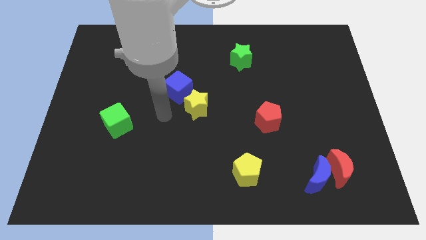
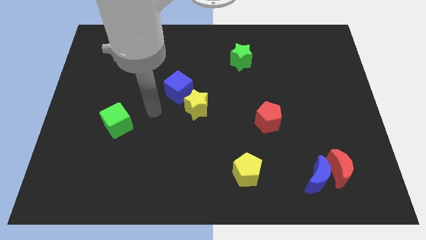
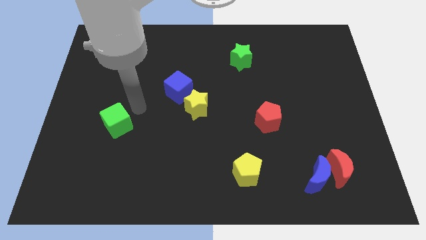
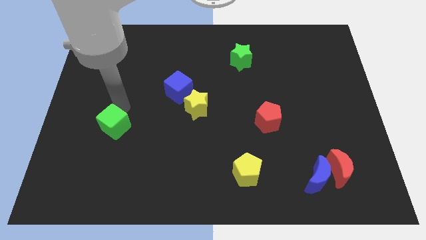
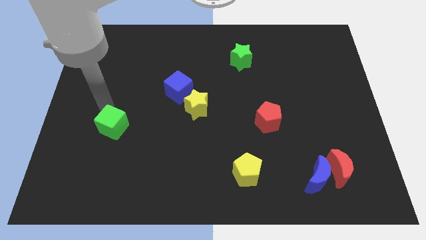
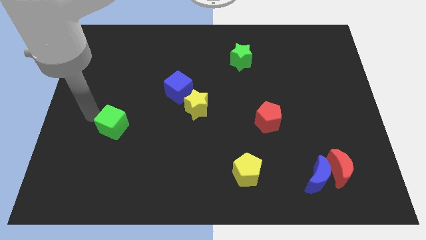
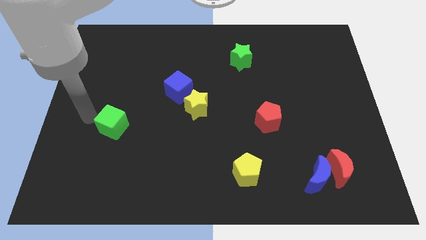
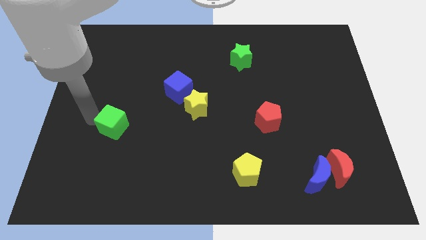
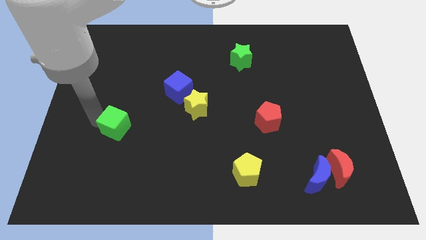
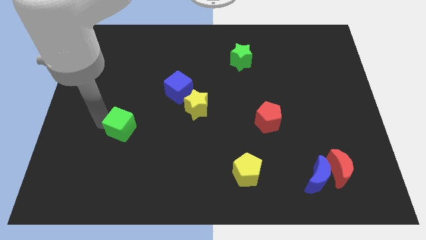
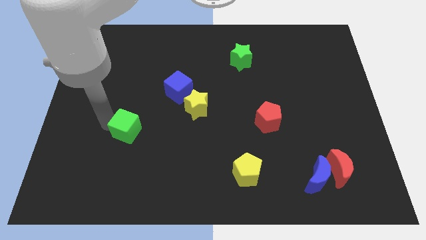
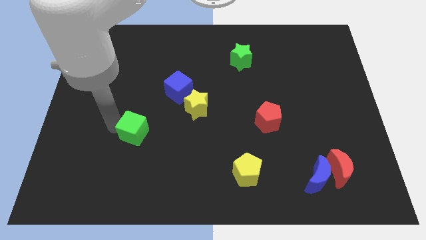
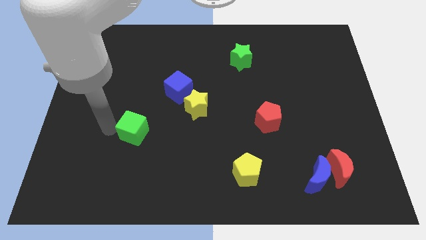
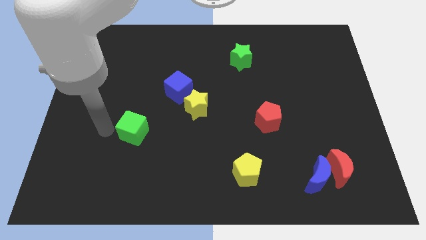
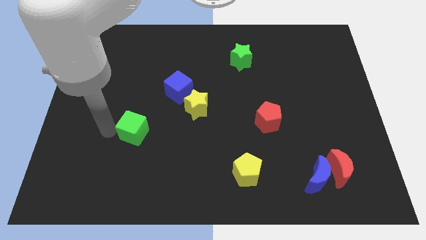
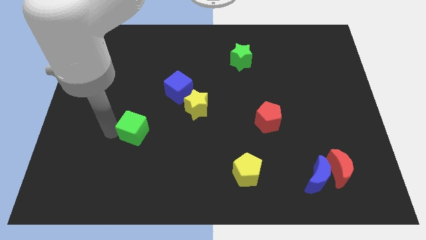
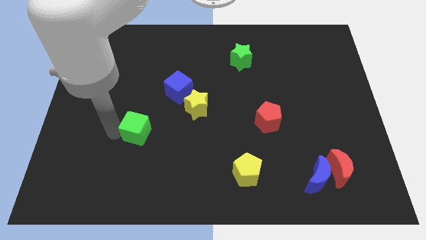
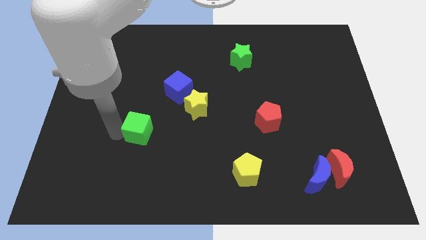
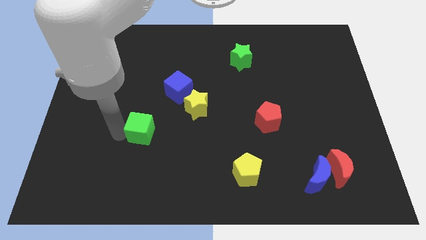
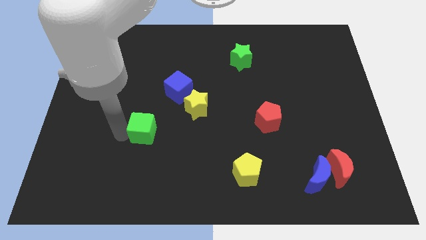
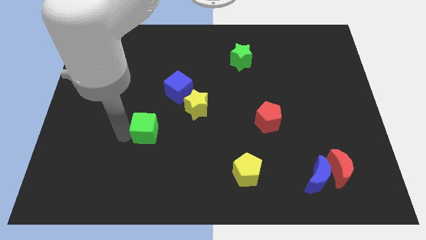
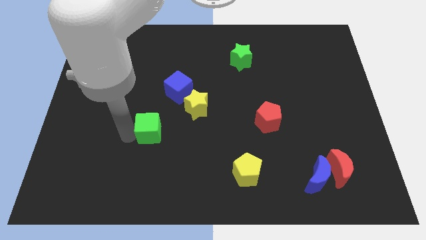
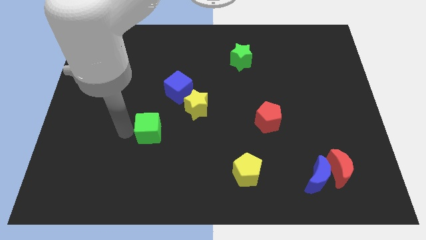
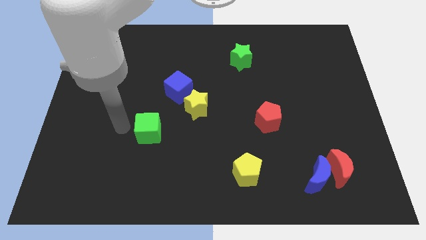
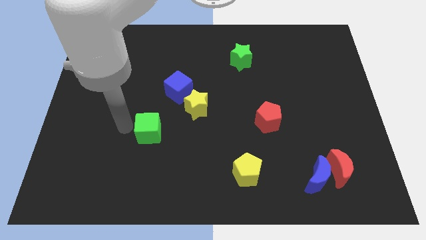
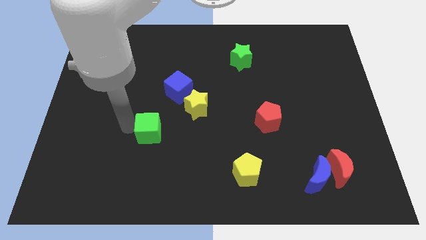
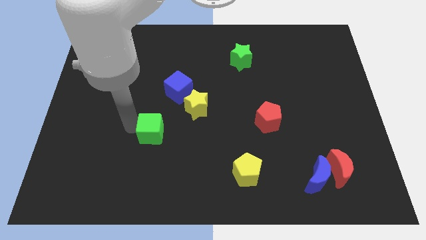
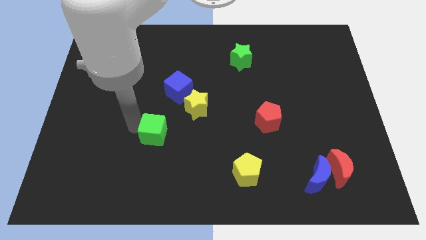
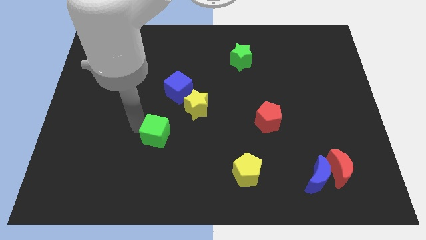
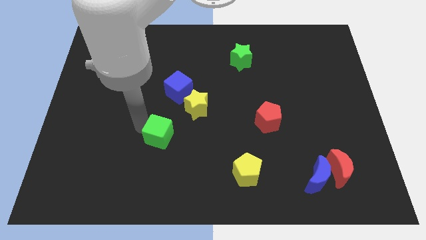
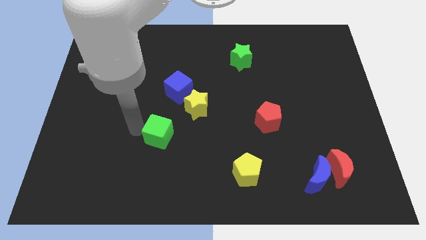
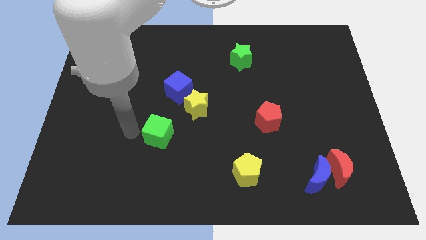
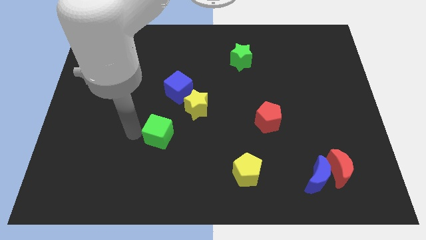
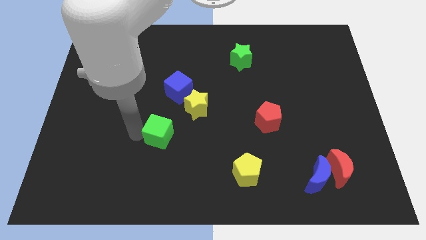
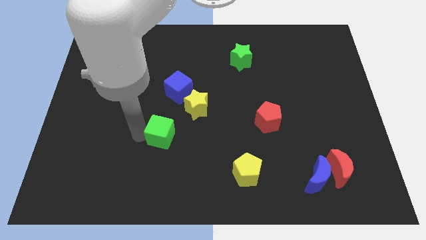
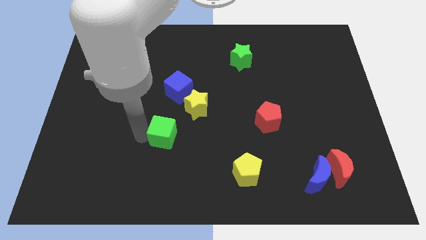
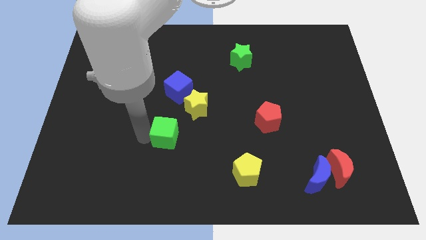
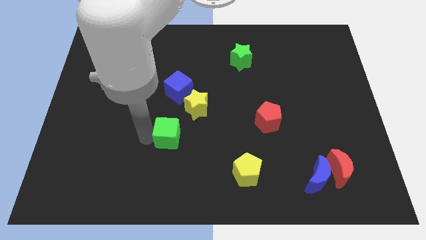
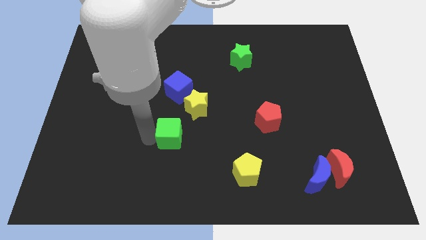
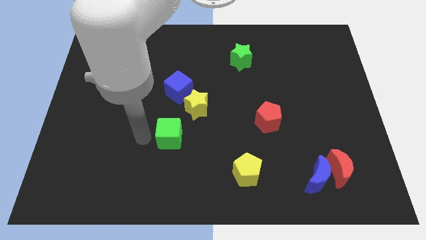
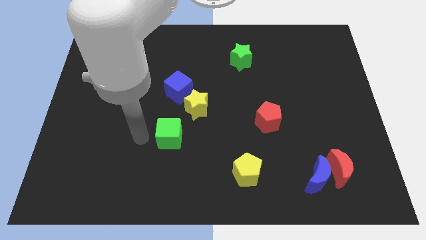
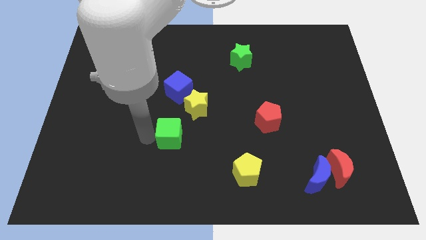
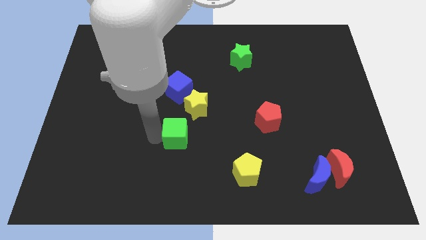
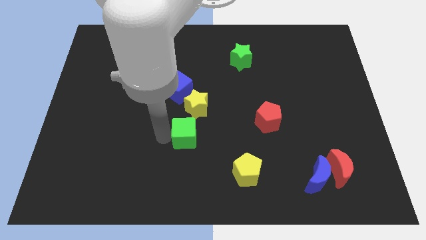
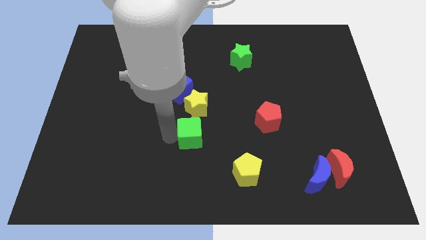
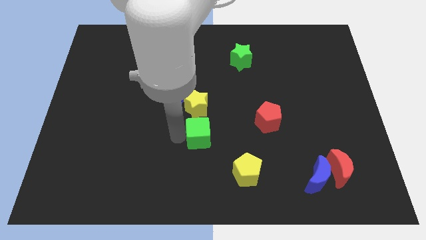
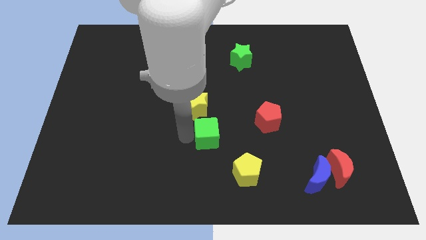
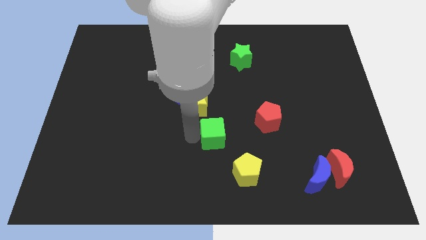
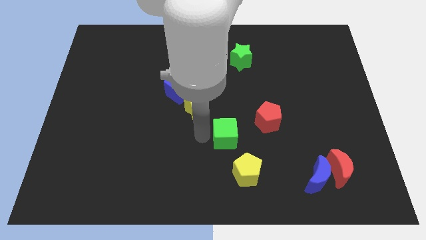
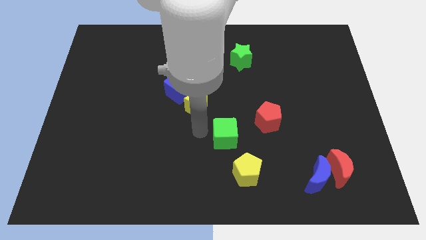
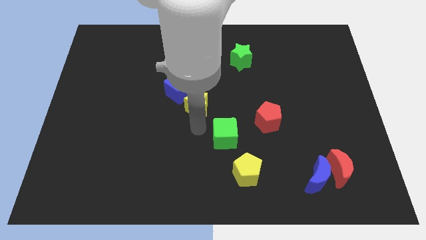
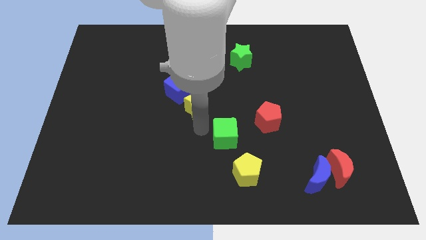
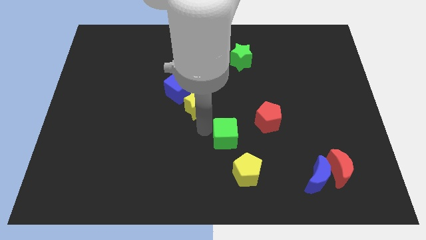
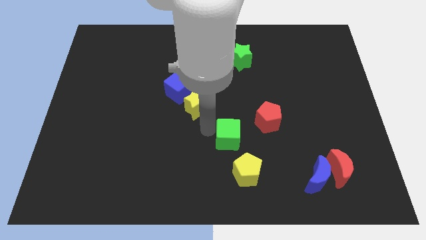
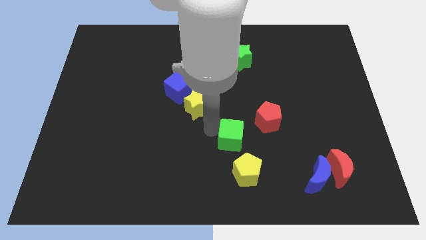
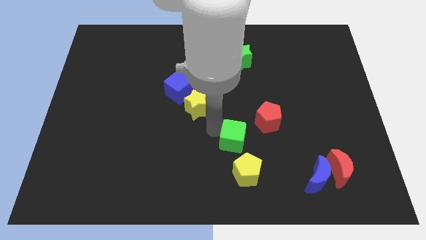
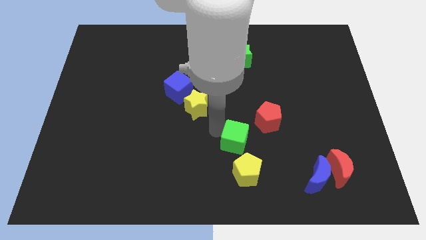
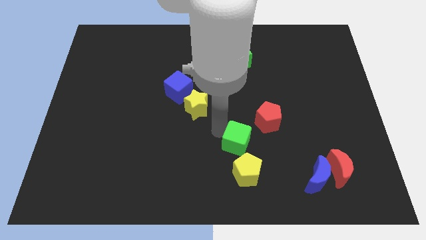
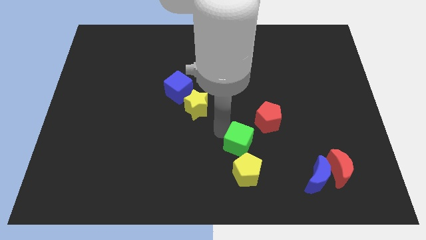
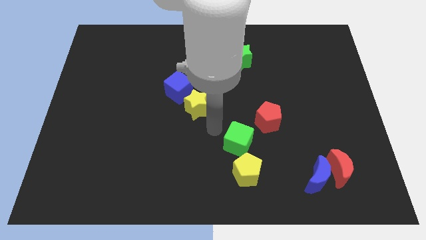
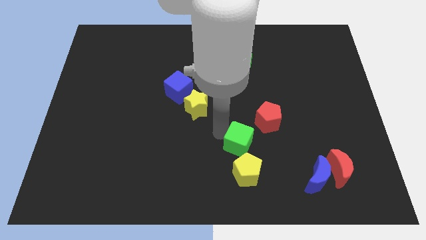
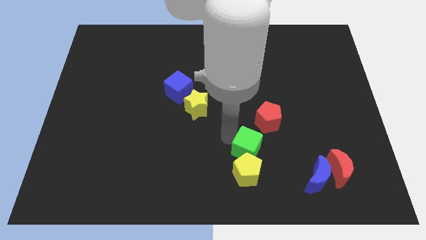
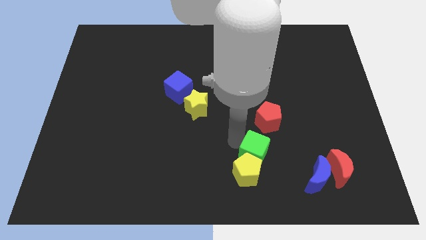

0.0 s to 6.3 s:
put the green cube to the bottom side of the red pentagon

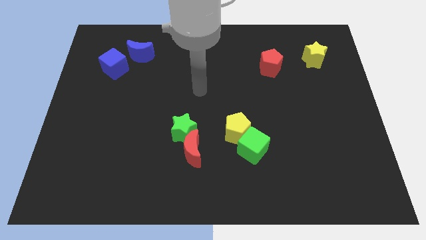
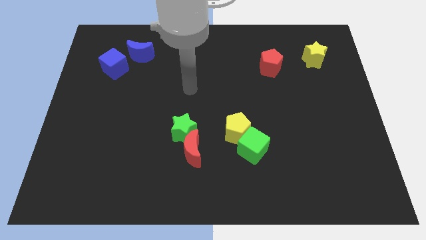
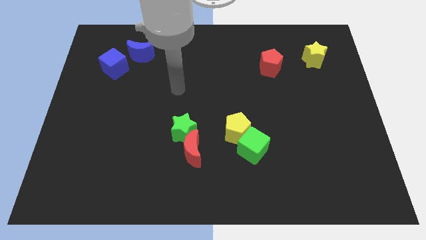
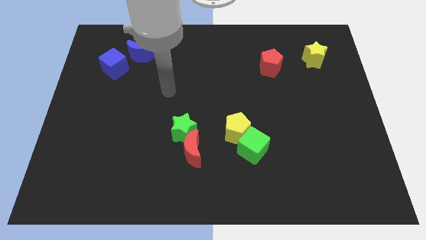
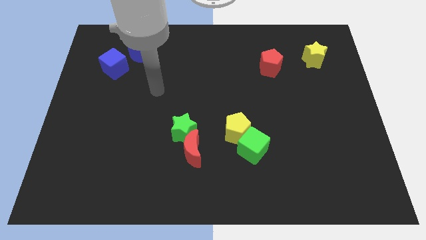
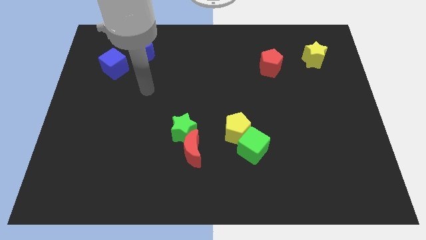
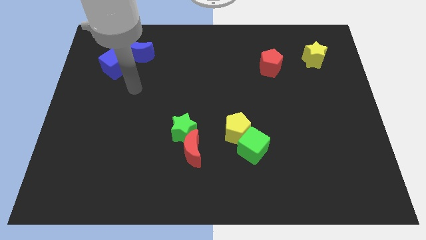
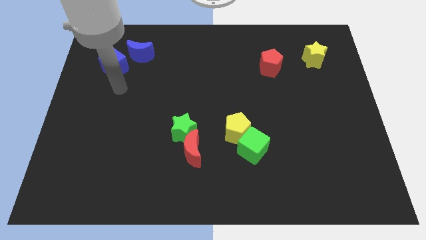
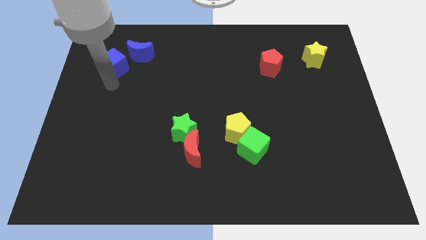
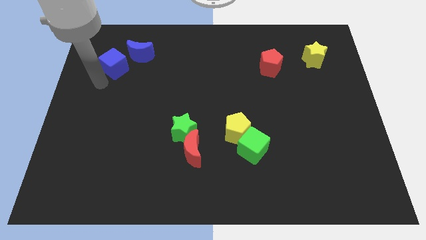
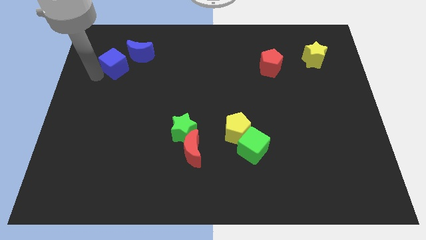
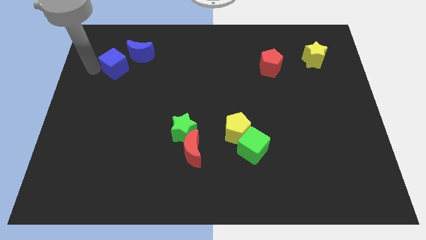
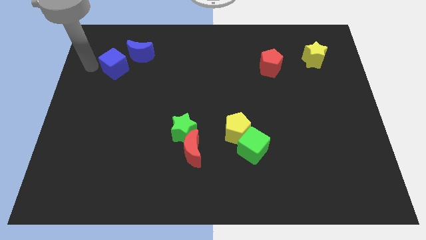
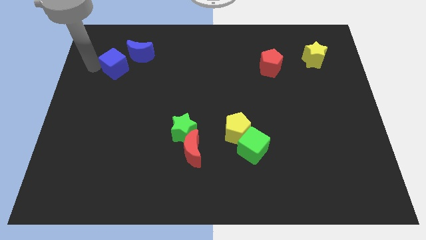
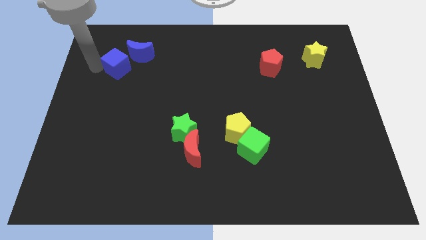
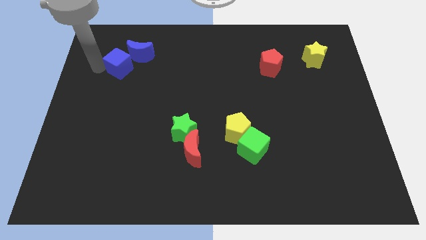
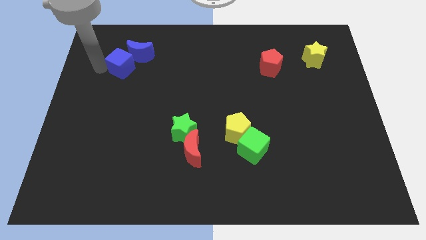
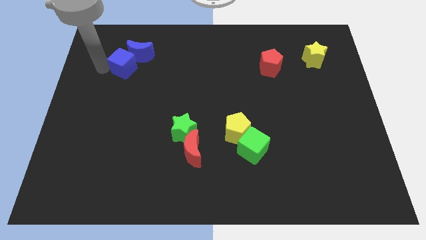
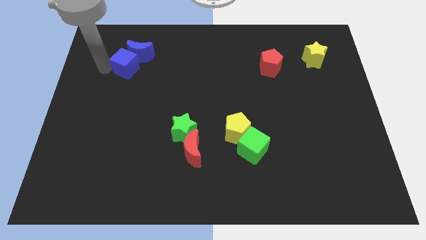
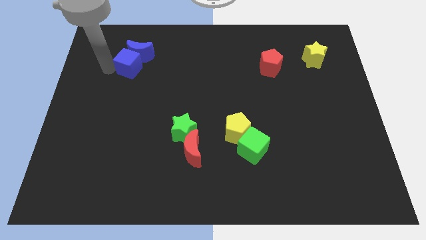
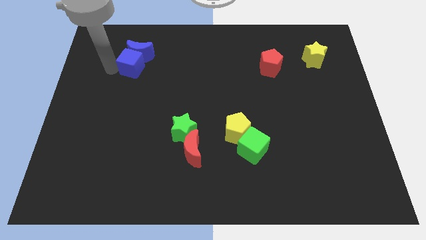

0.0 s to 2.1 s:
put the blue cube to the bottom right side of the blue moon
